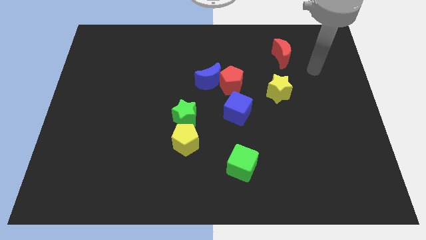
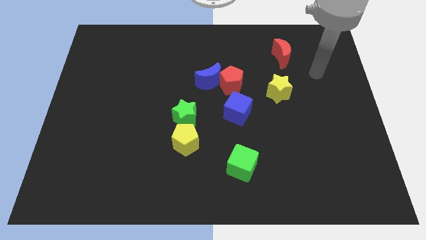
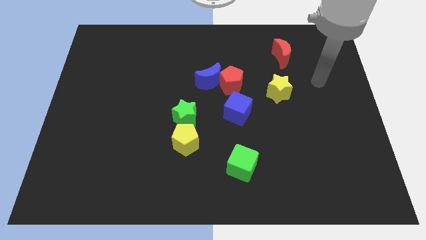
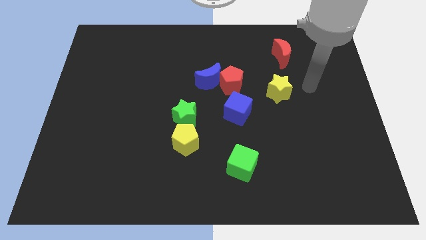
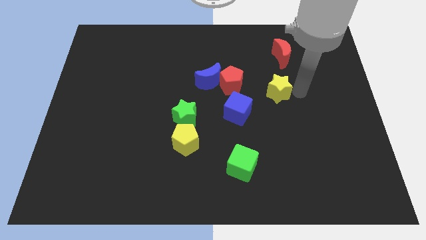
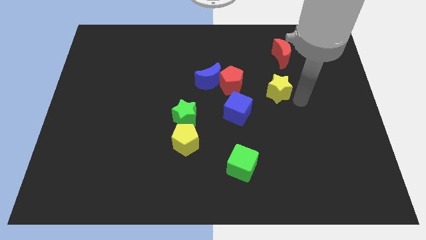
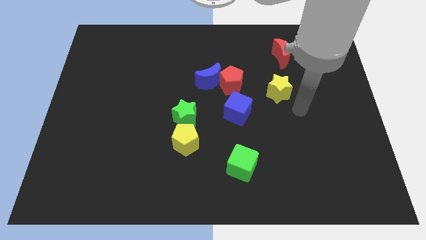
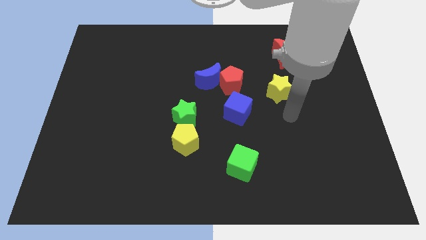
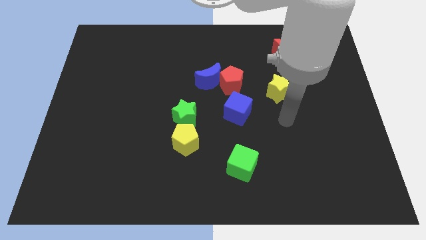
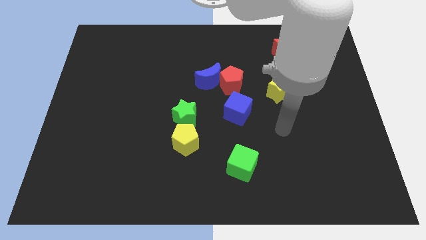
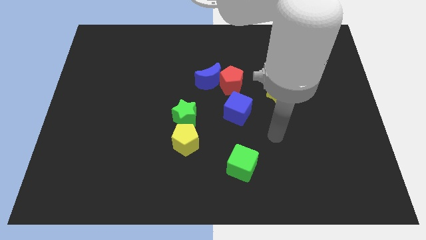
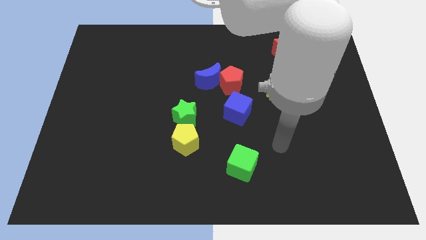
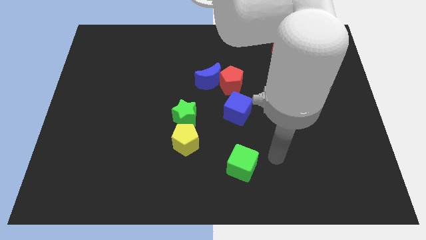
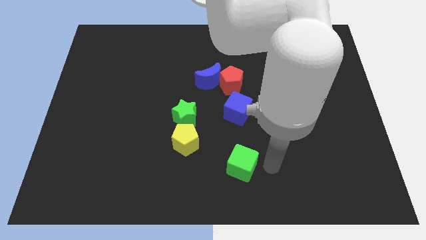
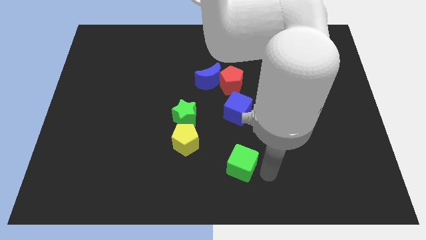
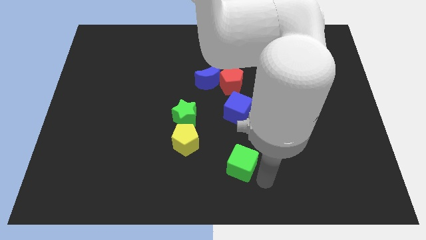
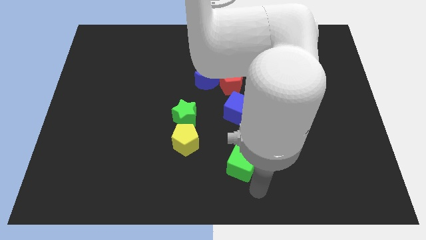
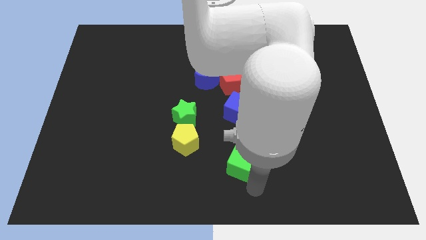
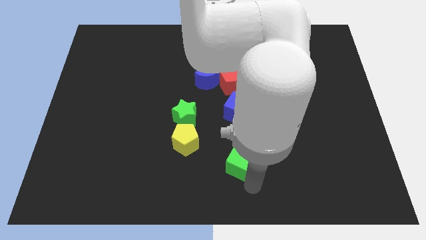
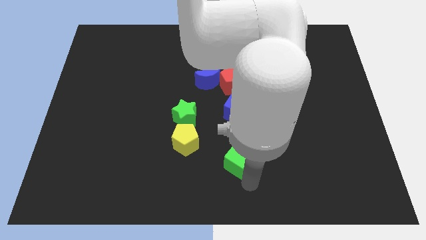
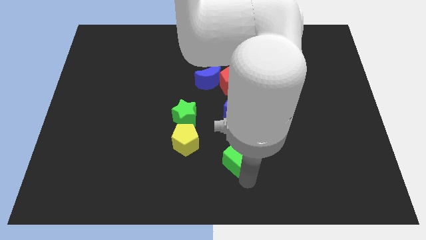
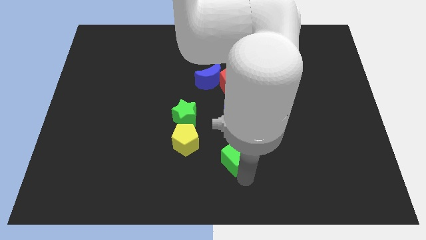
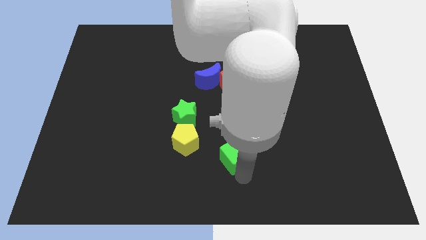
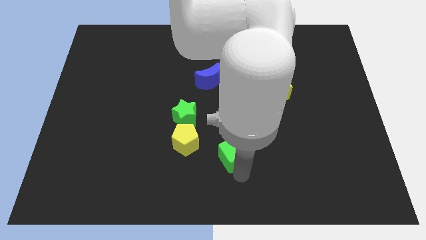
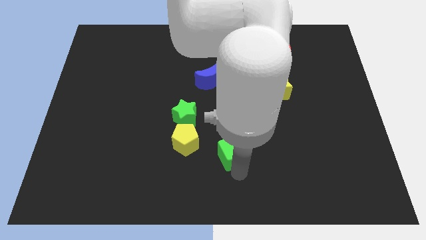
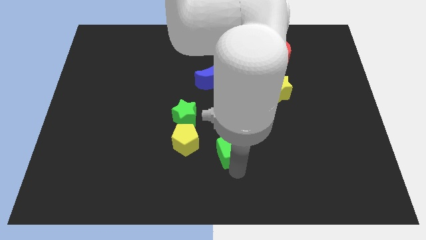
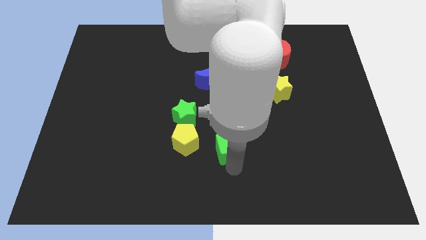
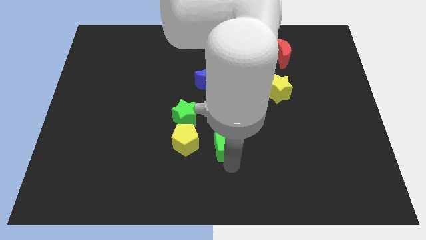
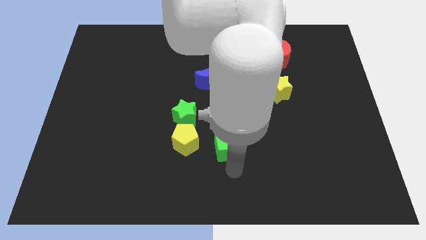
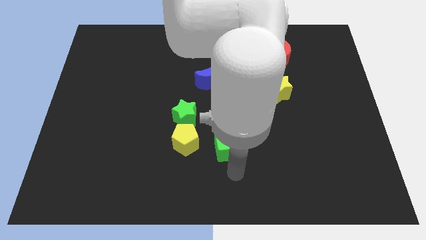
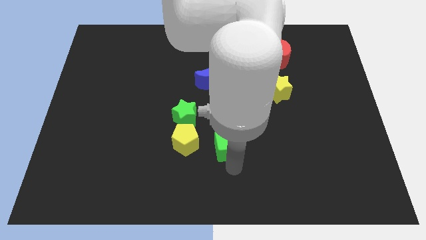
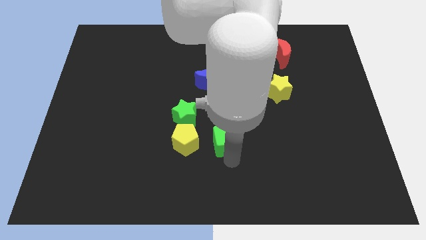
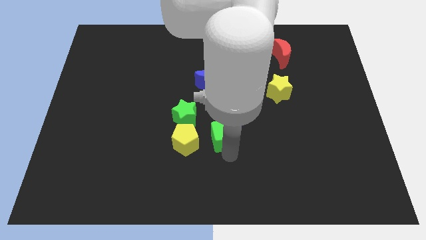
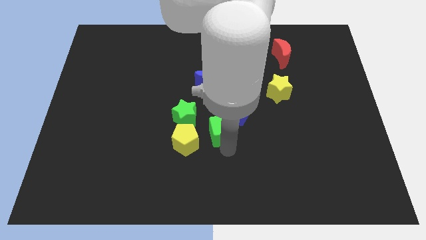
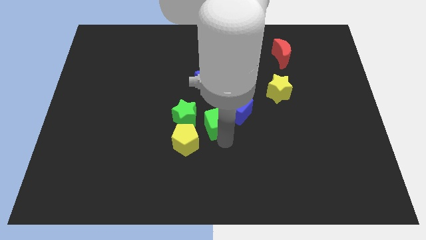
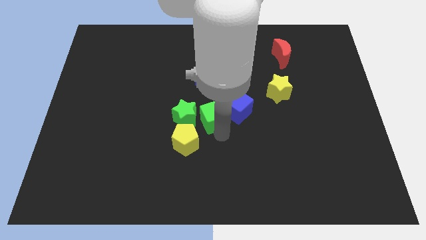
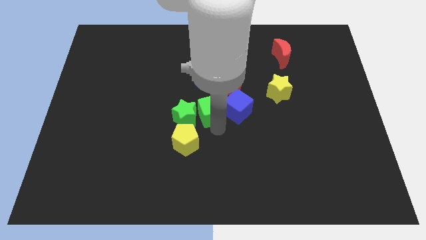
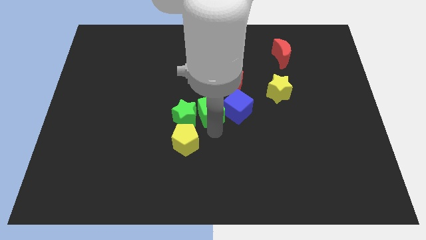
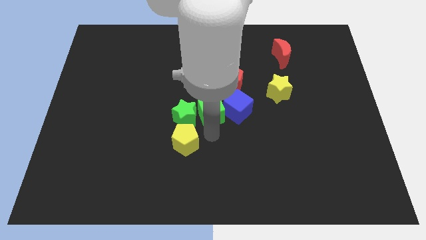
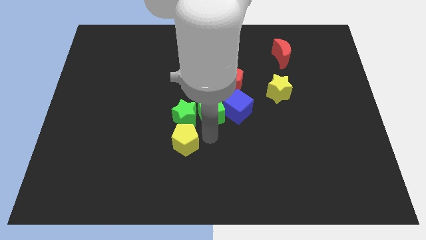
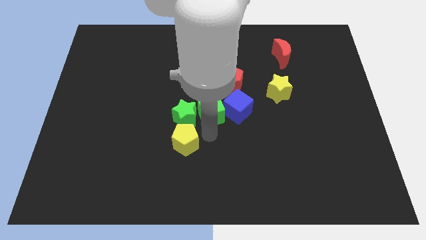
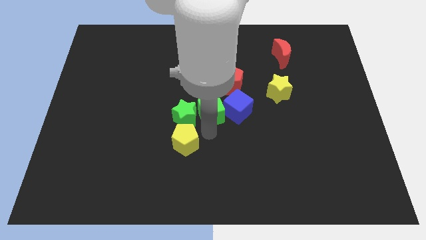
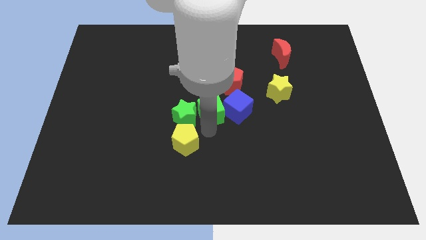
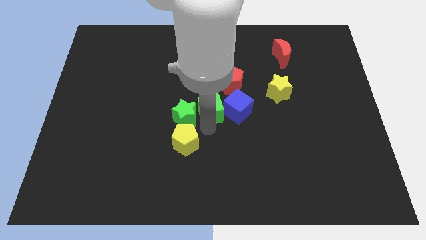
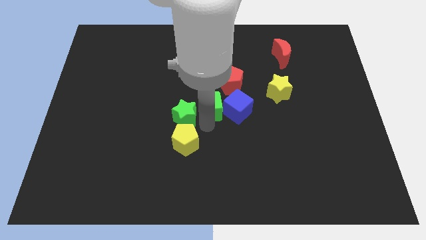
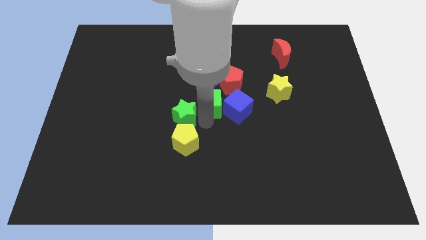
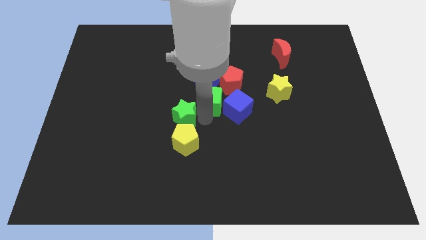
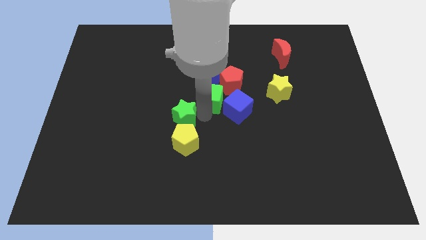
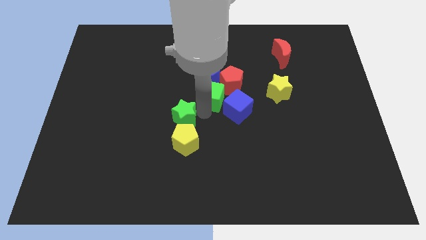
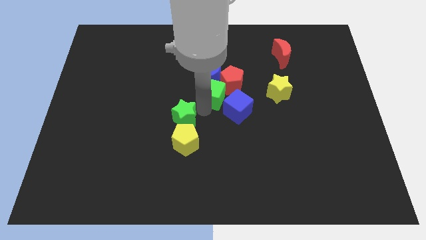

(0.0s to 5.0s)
put the green cube towards the red pentagon

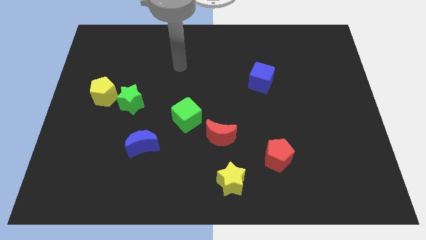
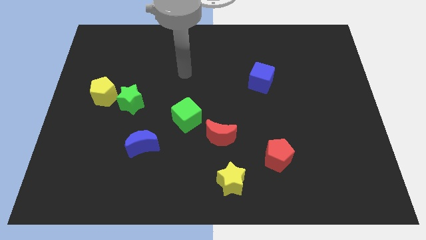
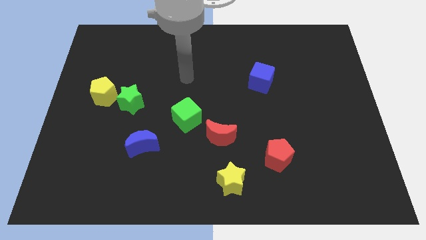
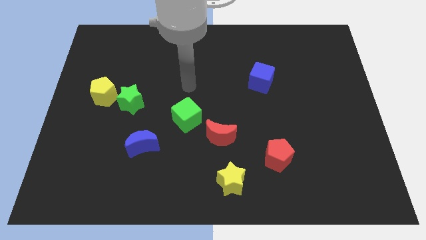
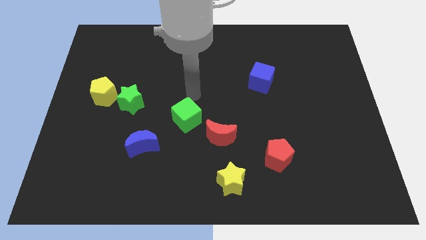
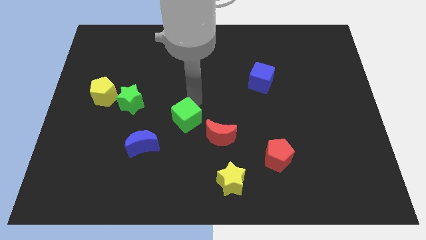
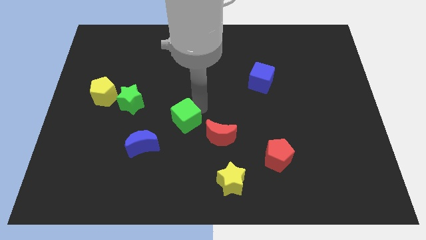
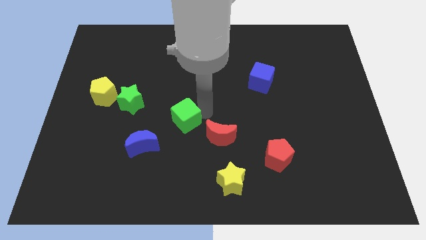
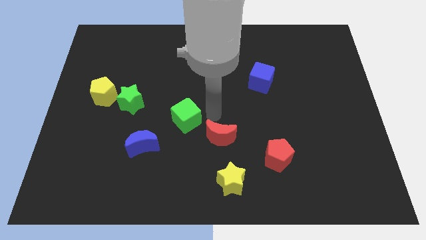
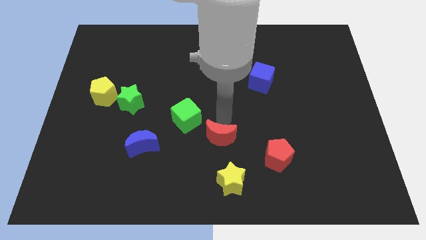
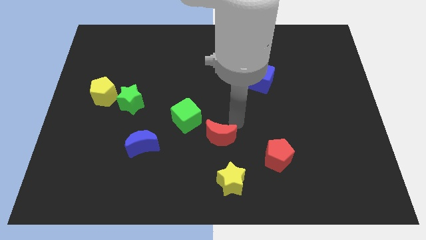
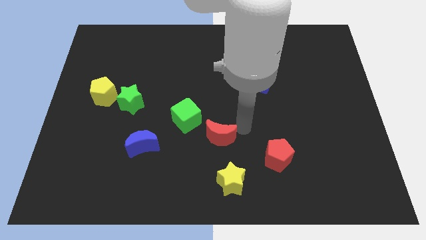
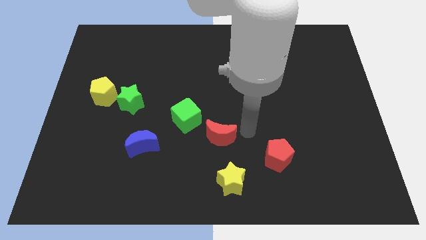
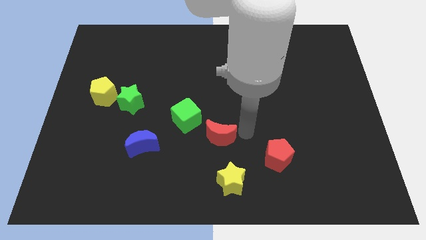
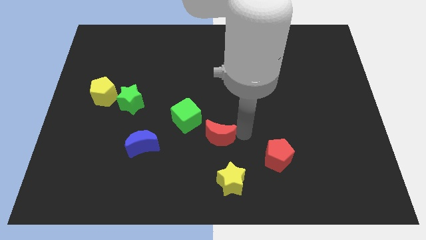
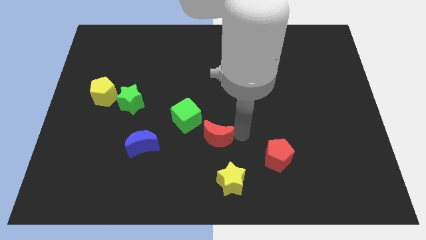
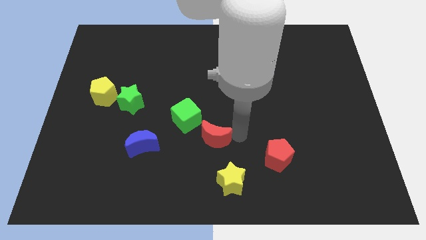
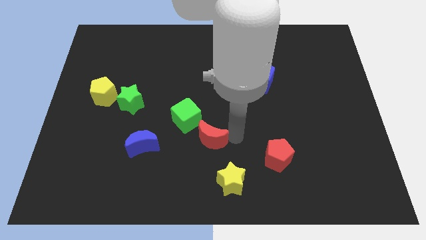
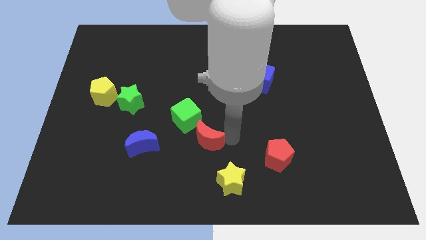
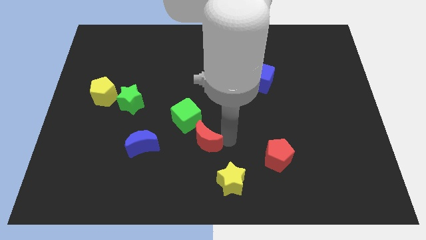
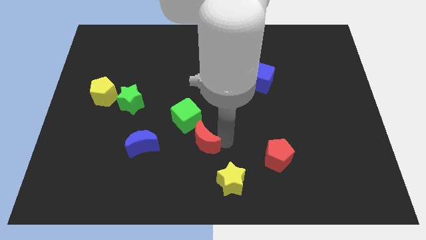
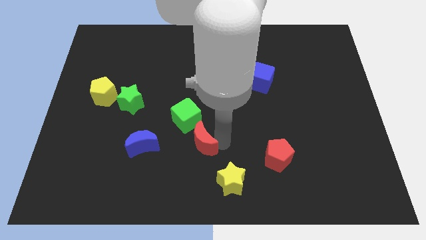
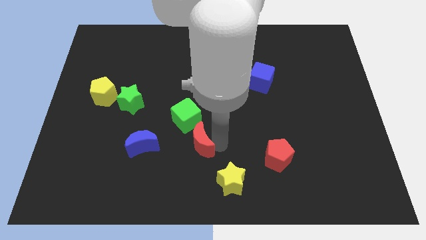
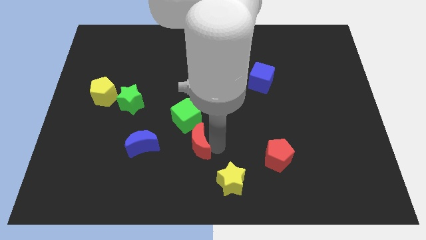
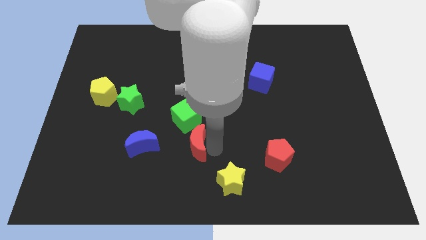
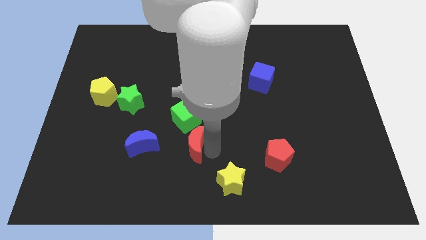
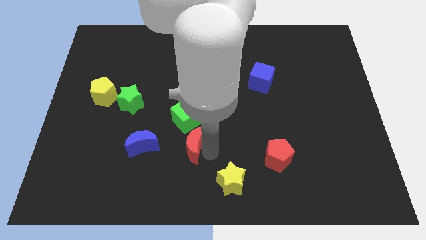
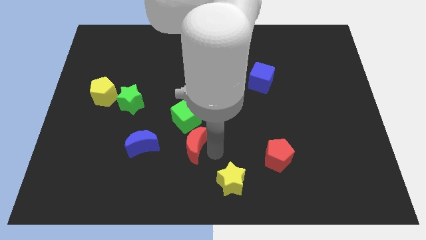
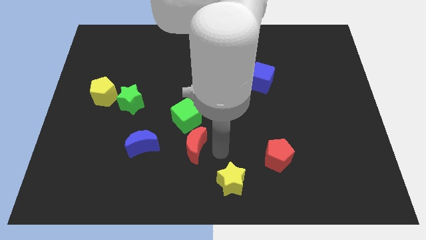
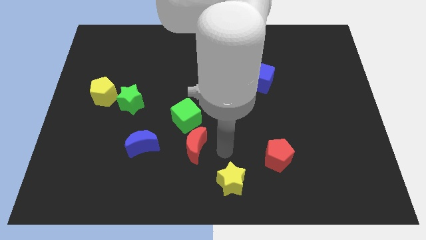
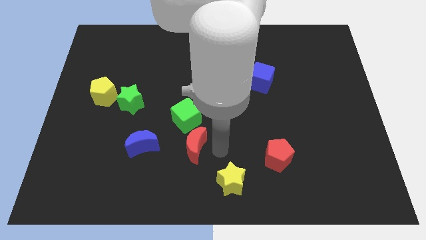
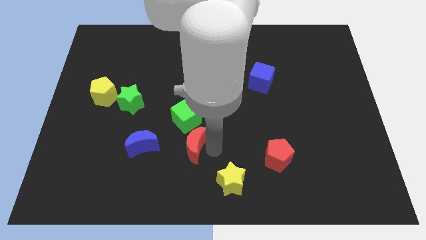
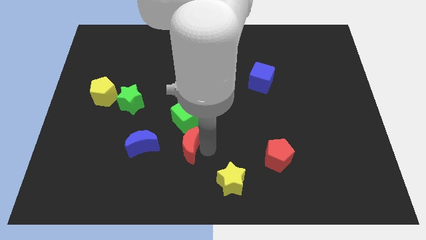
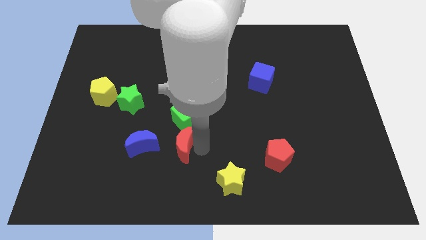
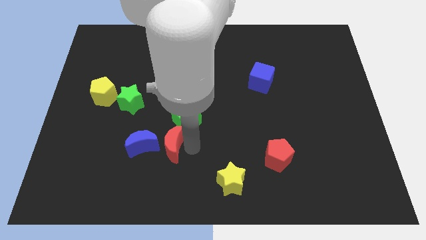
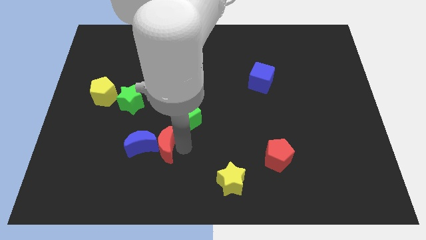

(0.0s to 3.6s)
put the red moon close to the blue moon
